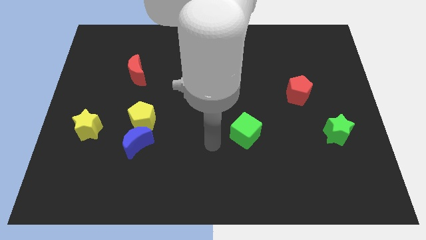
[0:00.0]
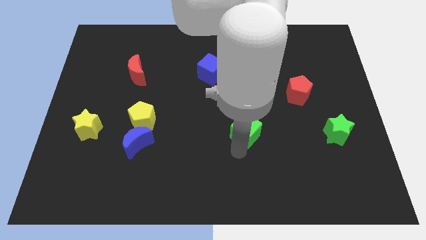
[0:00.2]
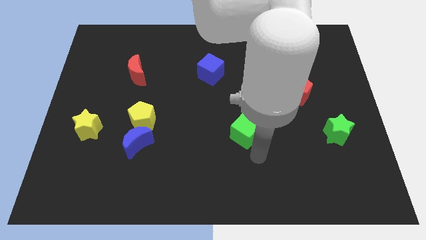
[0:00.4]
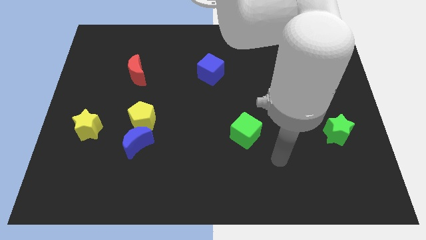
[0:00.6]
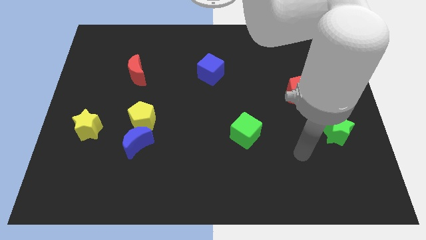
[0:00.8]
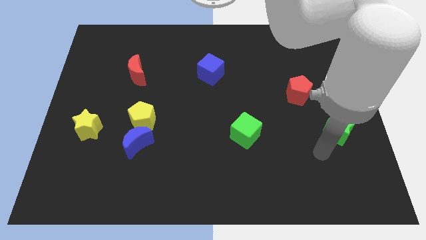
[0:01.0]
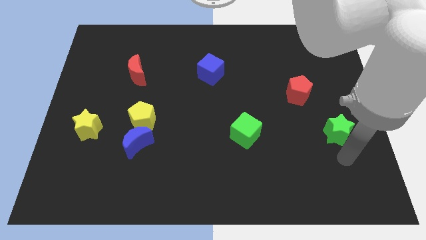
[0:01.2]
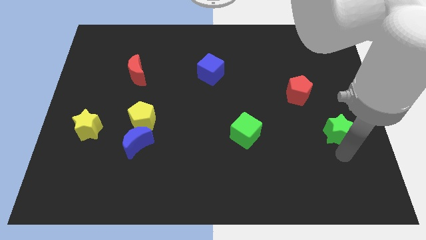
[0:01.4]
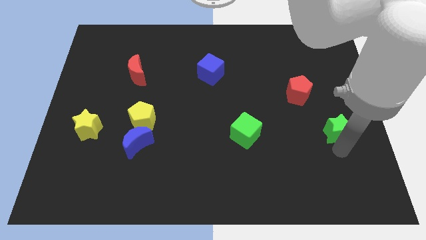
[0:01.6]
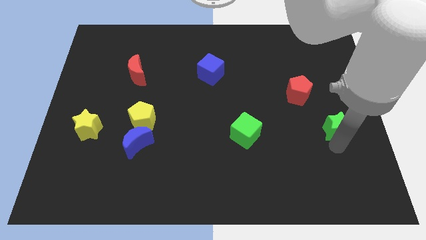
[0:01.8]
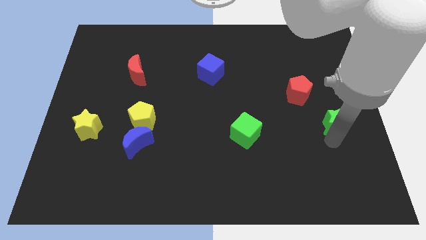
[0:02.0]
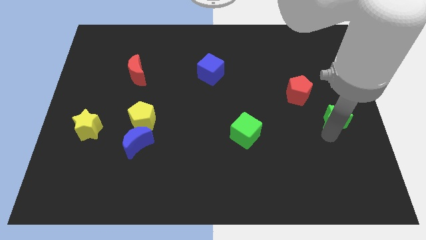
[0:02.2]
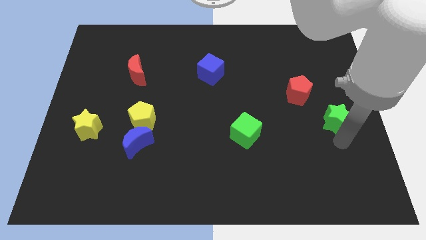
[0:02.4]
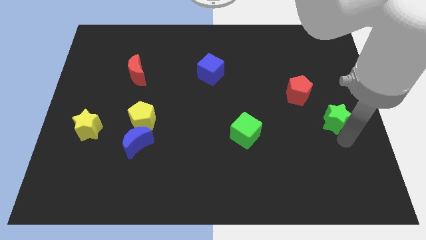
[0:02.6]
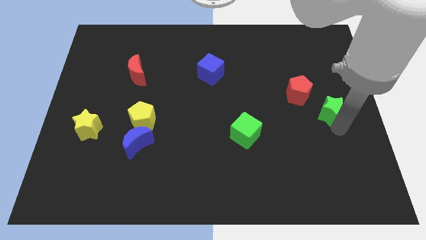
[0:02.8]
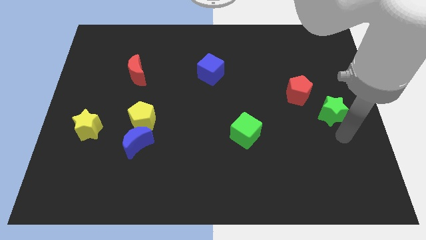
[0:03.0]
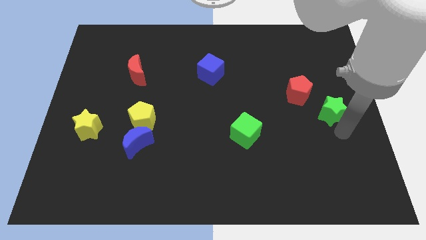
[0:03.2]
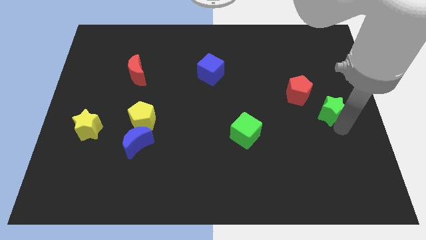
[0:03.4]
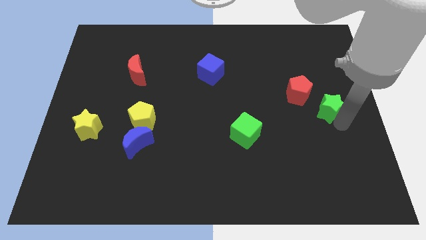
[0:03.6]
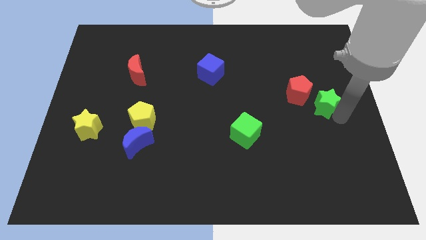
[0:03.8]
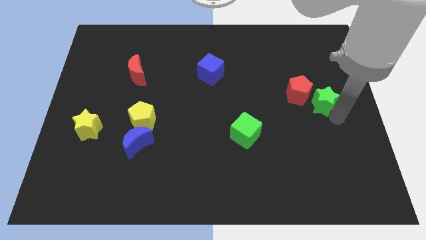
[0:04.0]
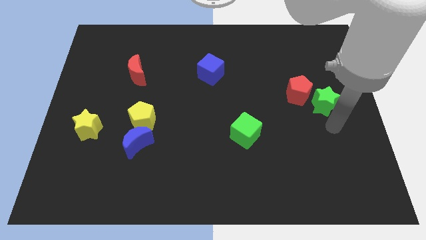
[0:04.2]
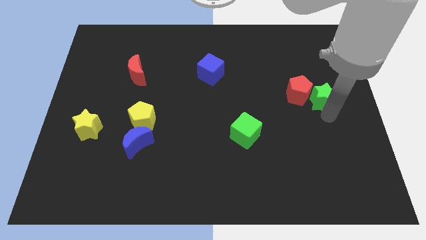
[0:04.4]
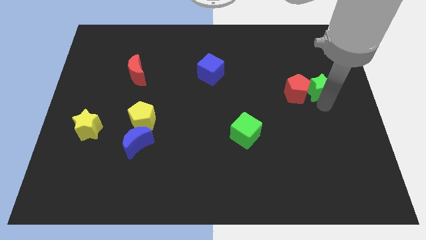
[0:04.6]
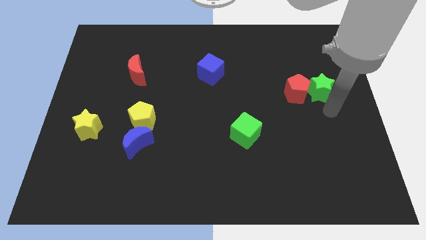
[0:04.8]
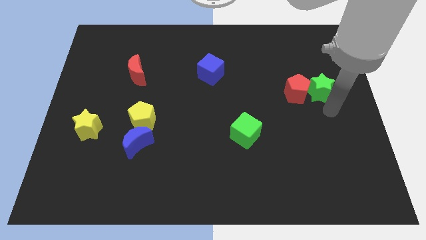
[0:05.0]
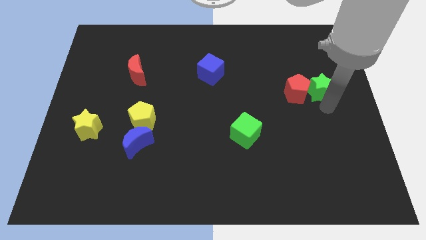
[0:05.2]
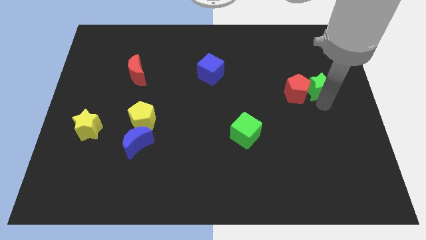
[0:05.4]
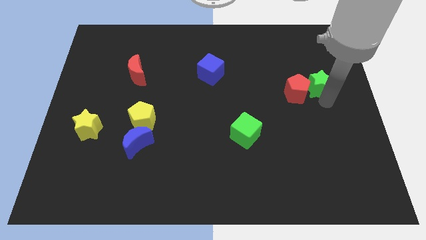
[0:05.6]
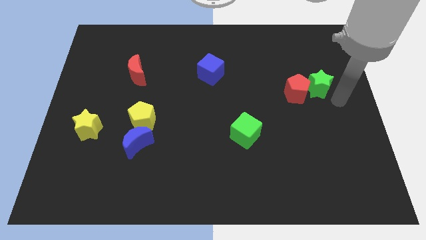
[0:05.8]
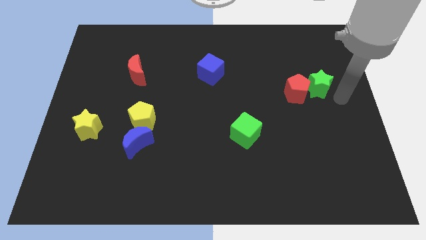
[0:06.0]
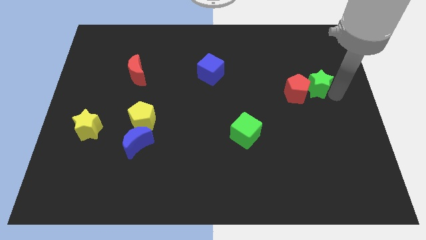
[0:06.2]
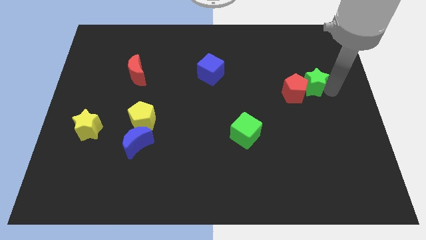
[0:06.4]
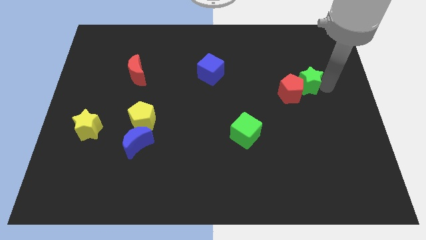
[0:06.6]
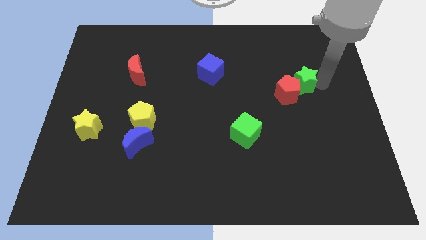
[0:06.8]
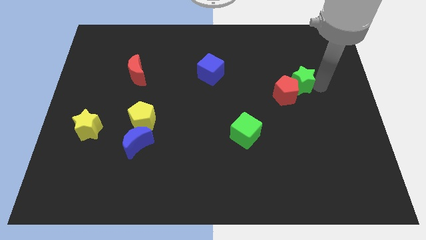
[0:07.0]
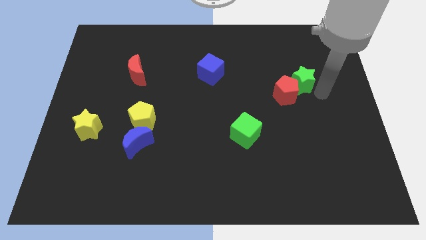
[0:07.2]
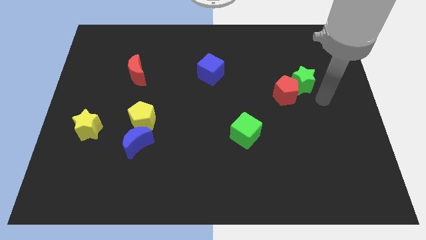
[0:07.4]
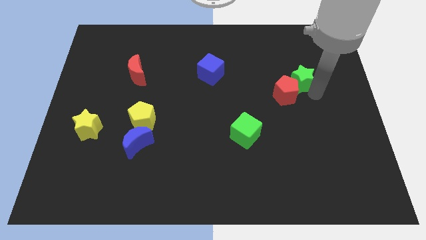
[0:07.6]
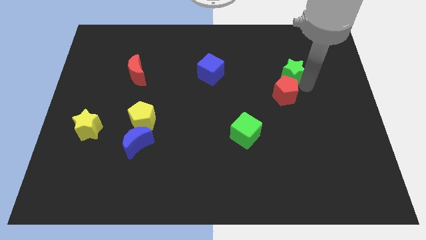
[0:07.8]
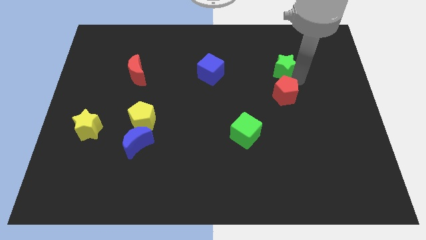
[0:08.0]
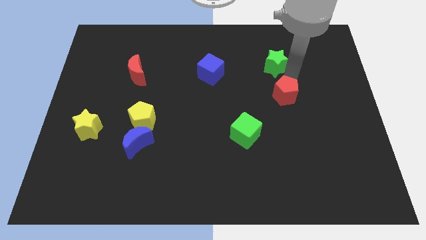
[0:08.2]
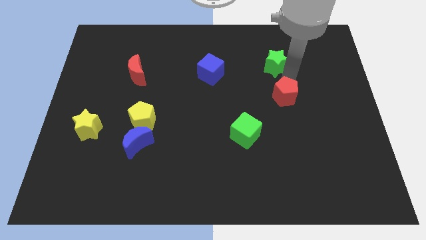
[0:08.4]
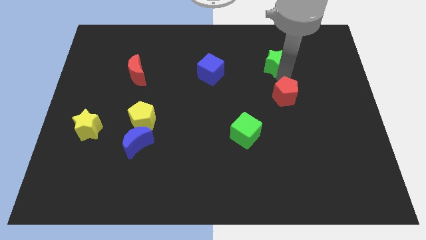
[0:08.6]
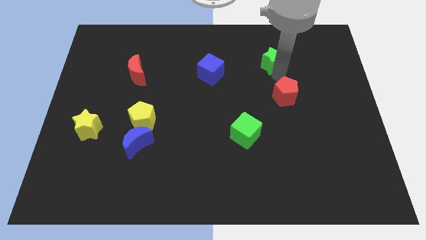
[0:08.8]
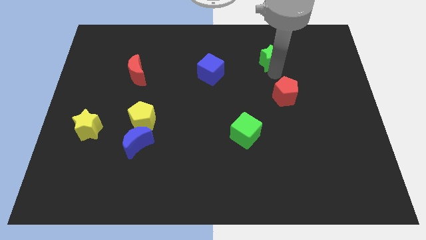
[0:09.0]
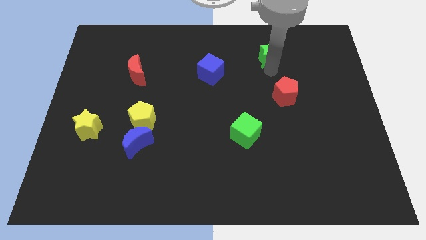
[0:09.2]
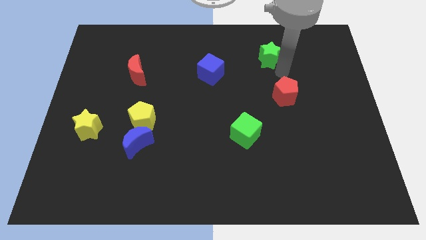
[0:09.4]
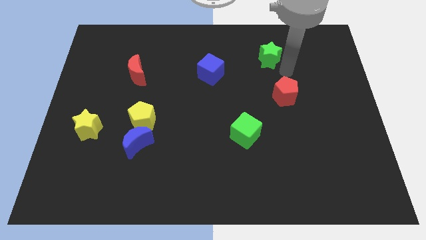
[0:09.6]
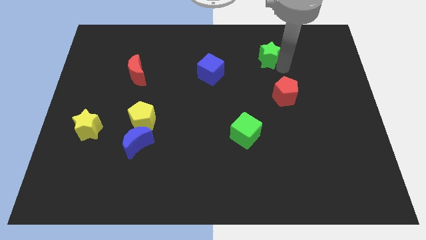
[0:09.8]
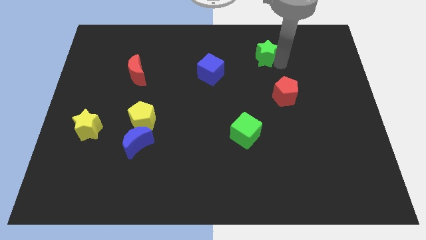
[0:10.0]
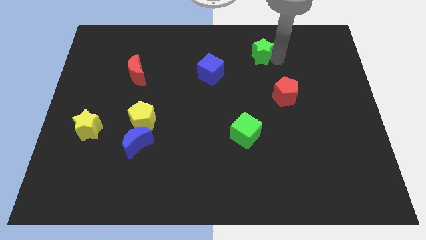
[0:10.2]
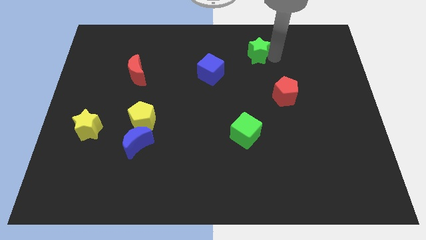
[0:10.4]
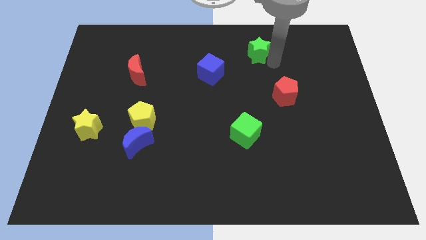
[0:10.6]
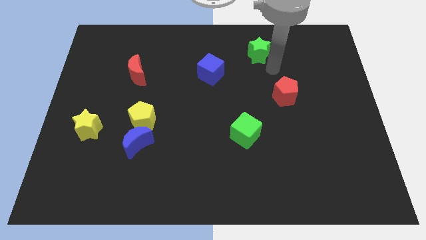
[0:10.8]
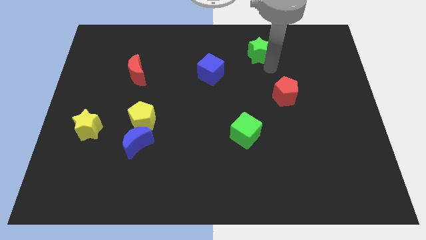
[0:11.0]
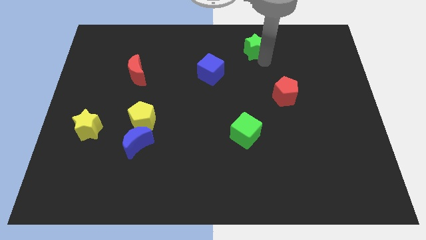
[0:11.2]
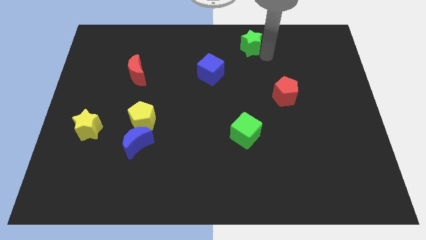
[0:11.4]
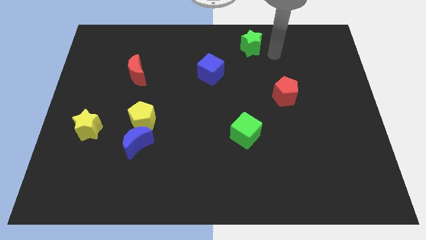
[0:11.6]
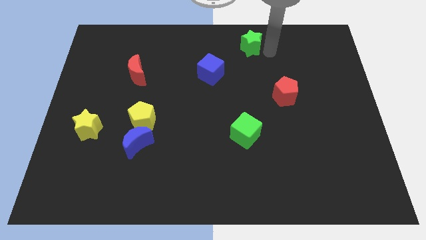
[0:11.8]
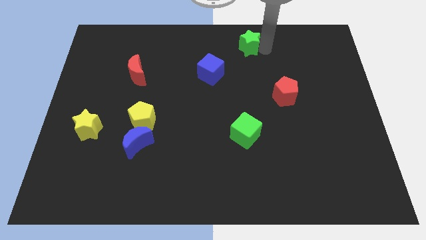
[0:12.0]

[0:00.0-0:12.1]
move the green star to the towards your base

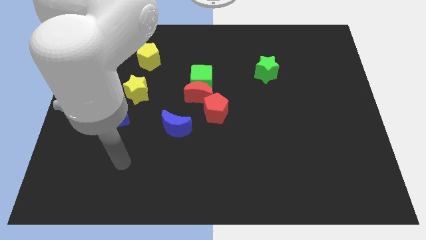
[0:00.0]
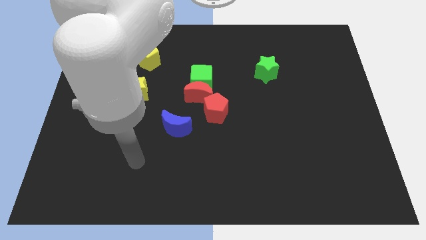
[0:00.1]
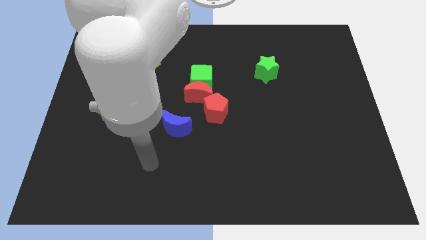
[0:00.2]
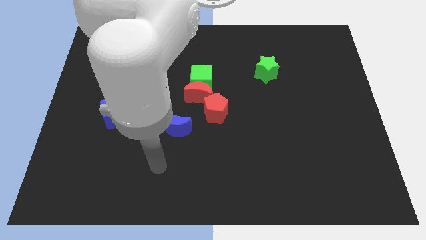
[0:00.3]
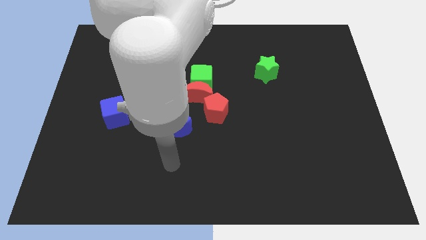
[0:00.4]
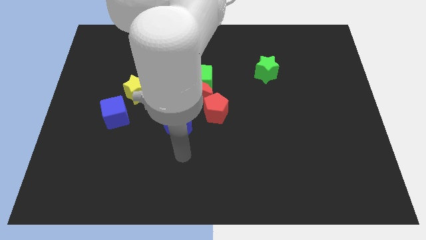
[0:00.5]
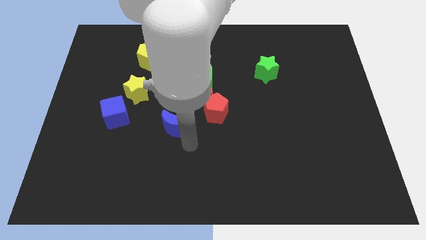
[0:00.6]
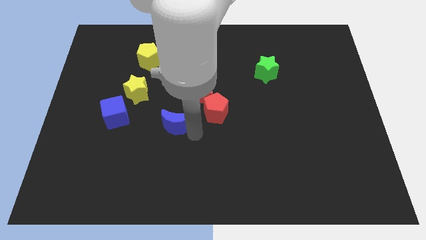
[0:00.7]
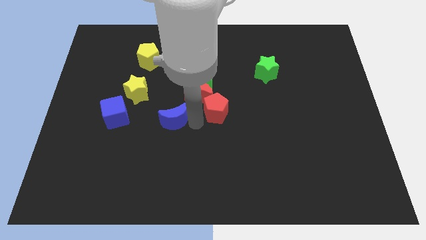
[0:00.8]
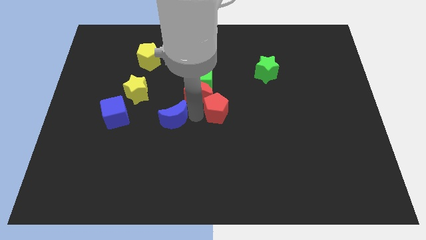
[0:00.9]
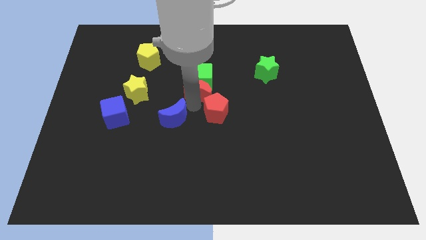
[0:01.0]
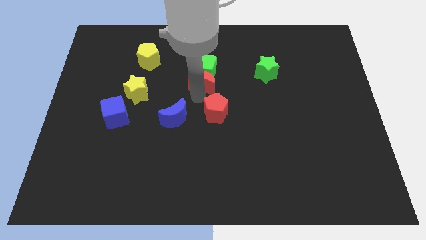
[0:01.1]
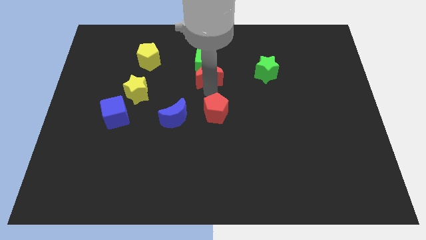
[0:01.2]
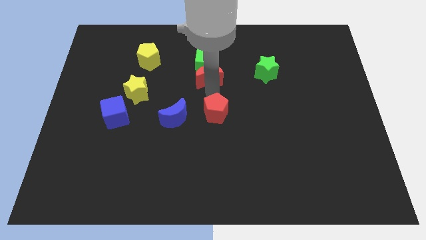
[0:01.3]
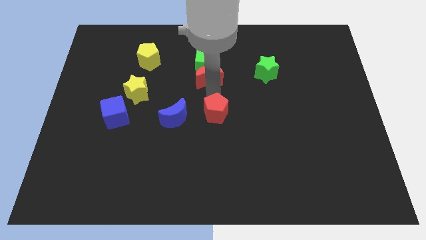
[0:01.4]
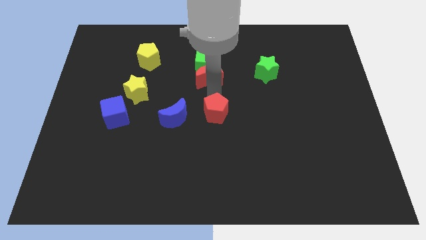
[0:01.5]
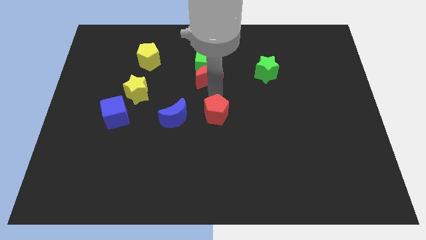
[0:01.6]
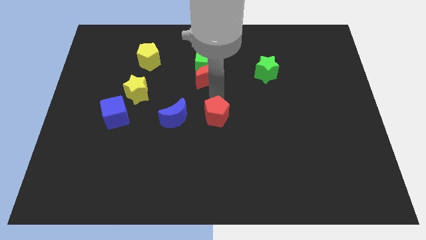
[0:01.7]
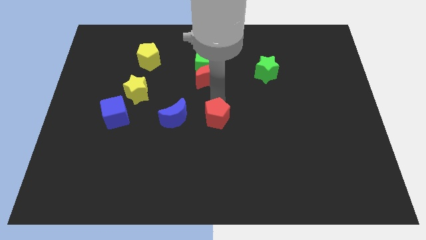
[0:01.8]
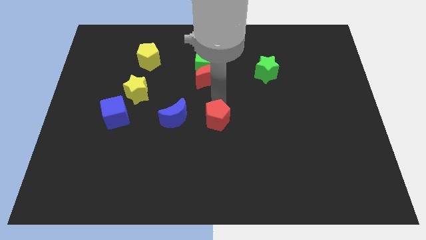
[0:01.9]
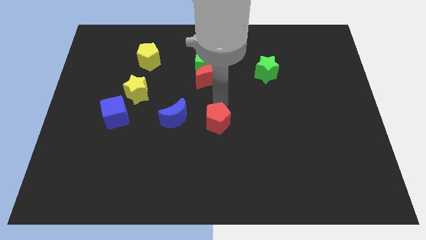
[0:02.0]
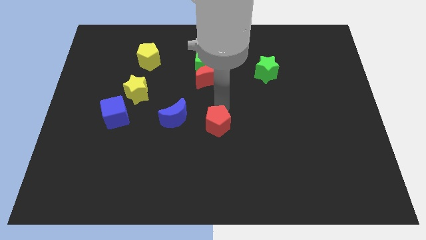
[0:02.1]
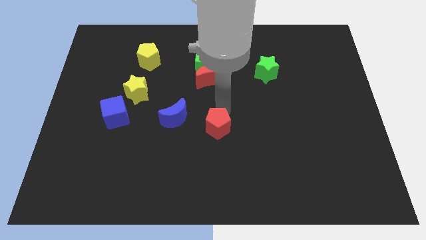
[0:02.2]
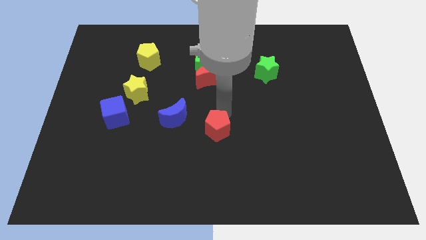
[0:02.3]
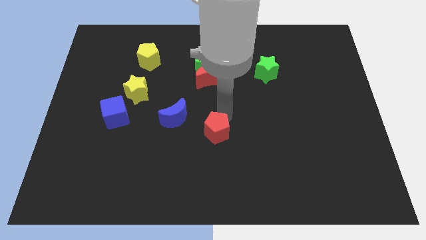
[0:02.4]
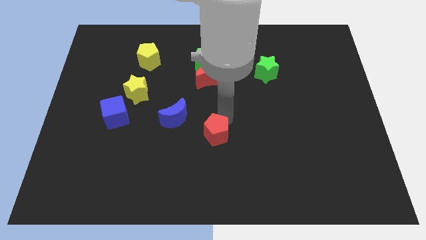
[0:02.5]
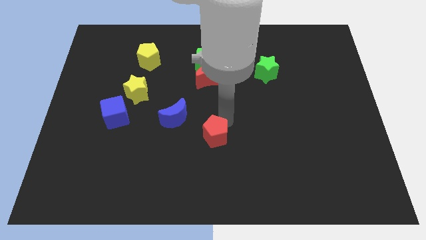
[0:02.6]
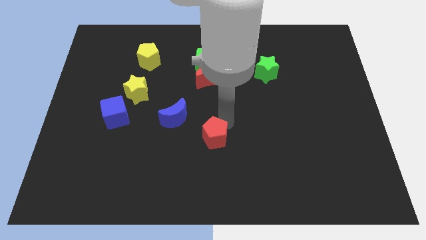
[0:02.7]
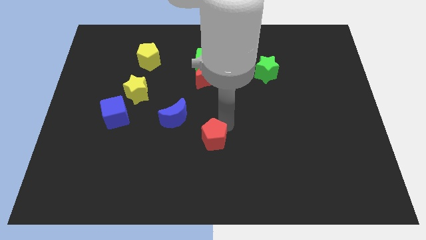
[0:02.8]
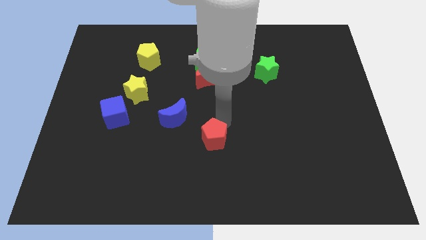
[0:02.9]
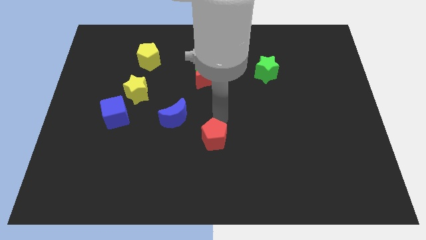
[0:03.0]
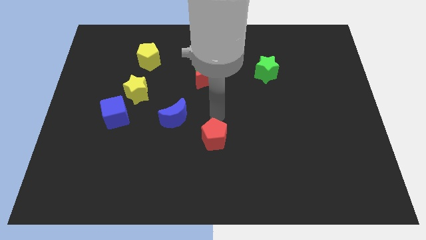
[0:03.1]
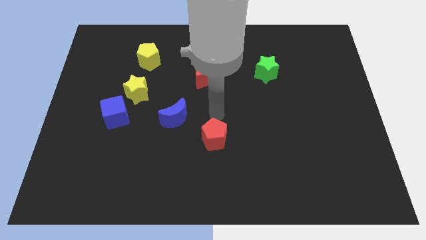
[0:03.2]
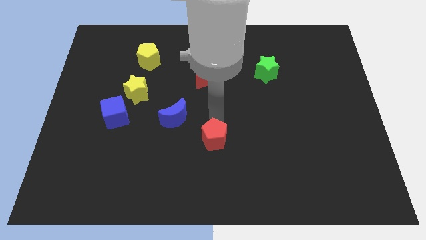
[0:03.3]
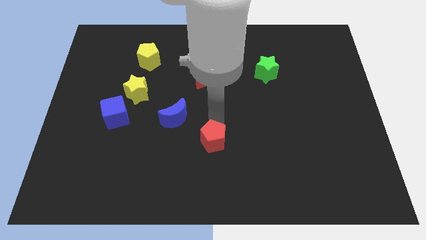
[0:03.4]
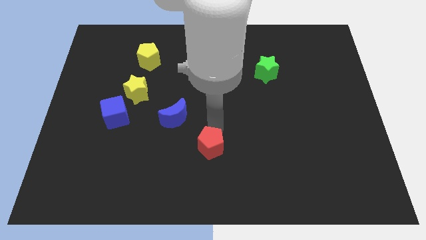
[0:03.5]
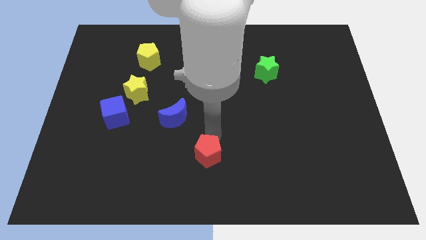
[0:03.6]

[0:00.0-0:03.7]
push the red pentagon to the bottom side
